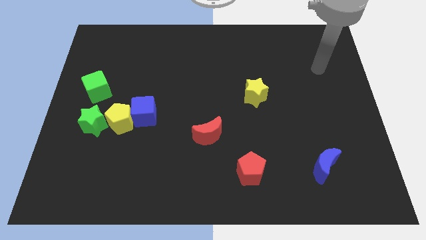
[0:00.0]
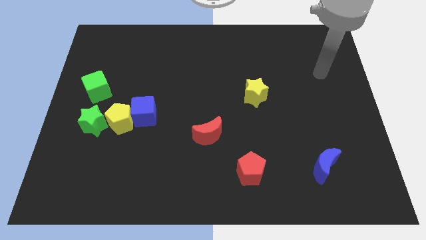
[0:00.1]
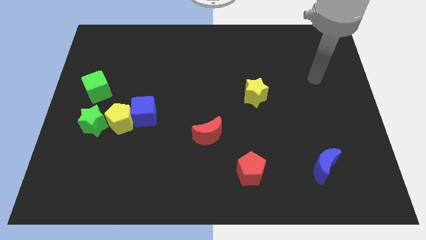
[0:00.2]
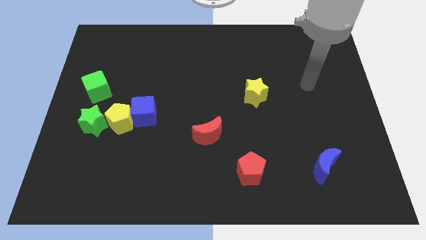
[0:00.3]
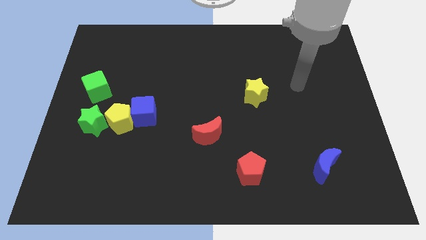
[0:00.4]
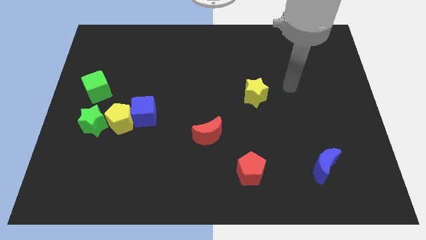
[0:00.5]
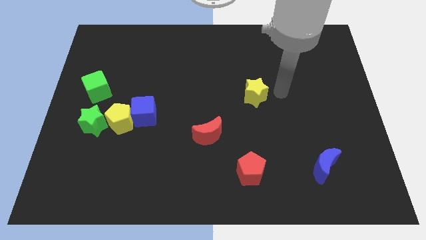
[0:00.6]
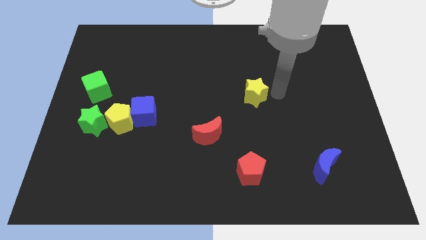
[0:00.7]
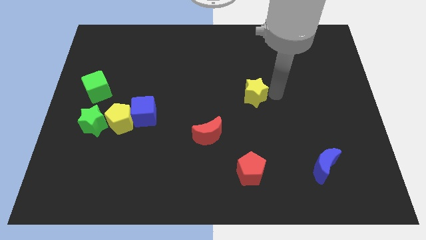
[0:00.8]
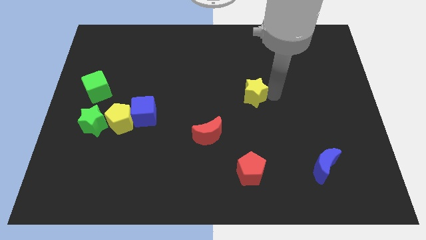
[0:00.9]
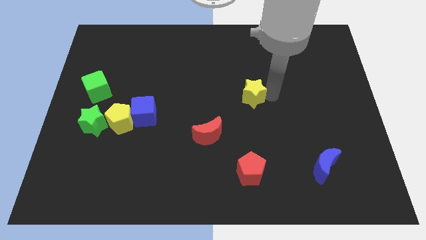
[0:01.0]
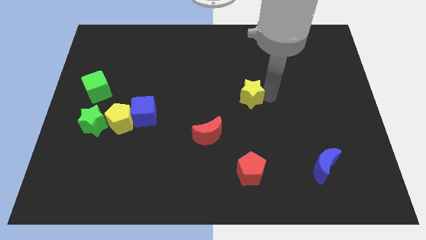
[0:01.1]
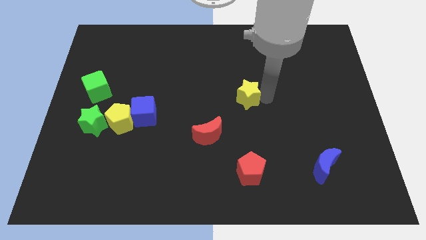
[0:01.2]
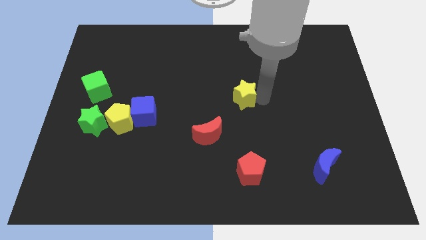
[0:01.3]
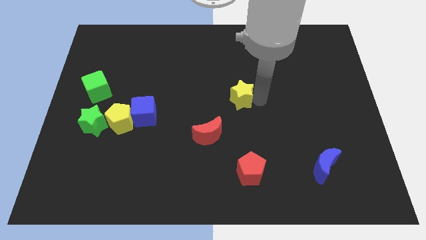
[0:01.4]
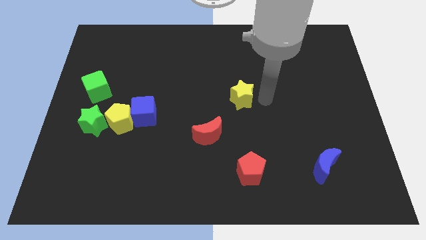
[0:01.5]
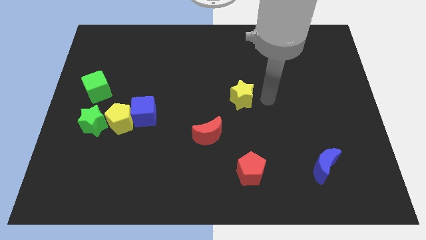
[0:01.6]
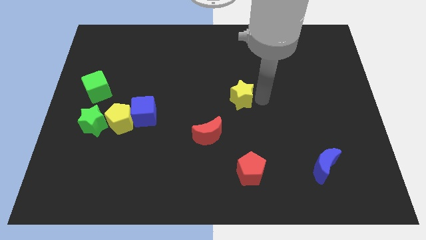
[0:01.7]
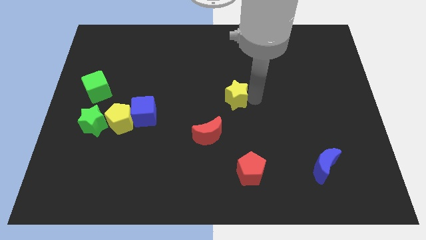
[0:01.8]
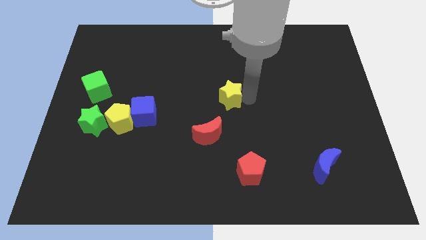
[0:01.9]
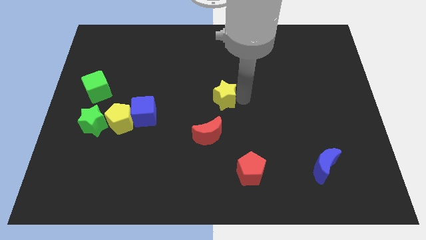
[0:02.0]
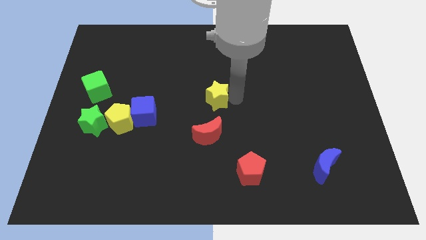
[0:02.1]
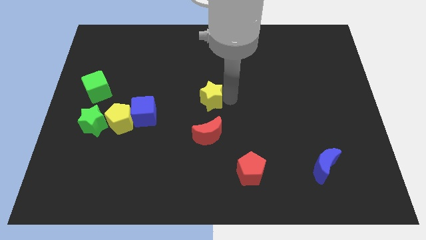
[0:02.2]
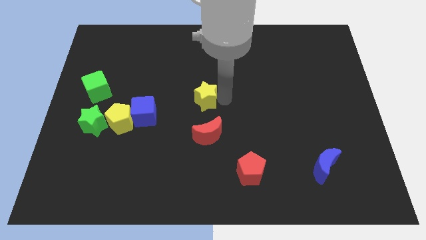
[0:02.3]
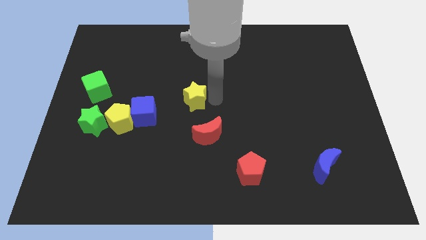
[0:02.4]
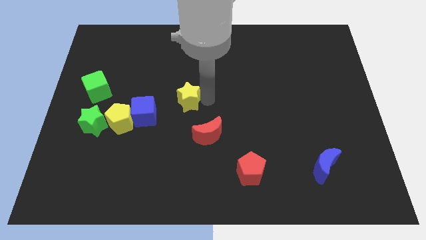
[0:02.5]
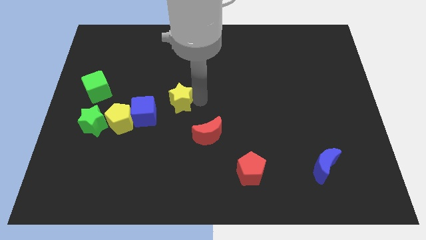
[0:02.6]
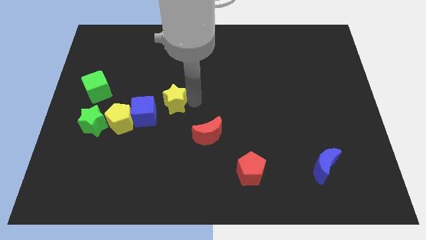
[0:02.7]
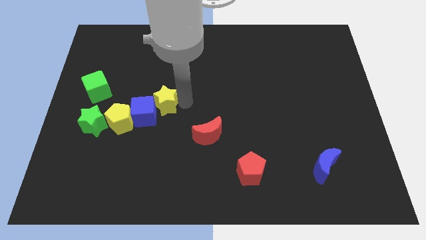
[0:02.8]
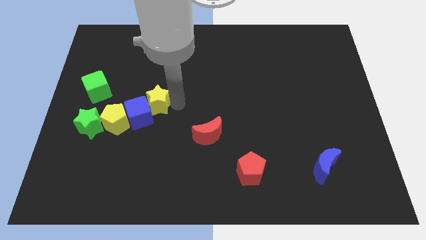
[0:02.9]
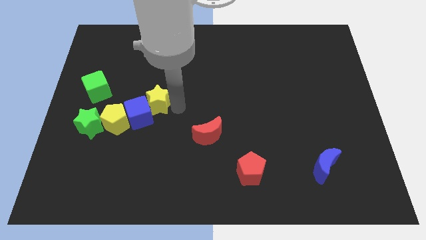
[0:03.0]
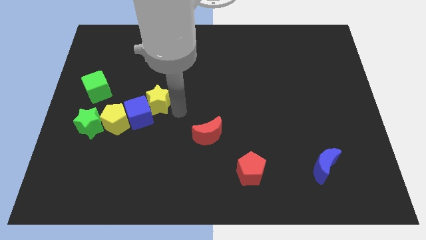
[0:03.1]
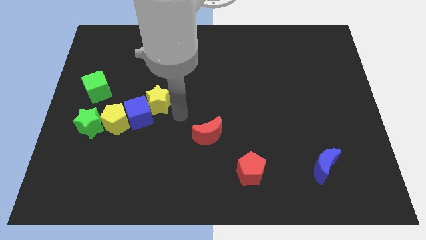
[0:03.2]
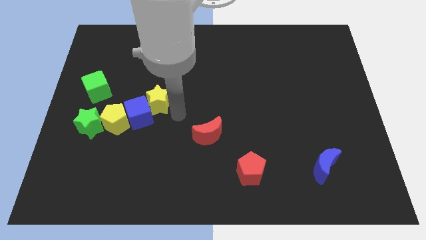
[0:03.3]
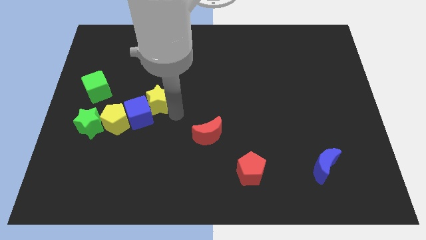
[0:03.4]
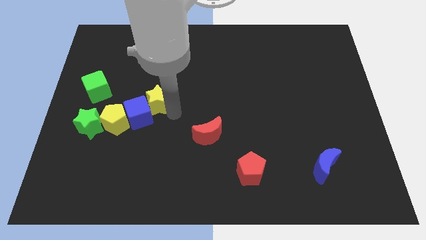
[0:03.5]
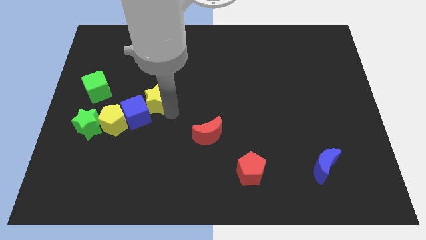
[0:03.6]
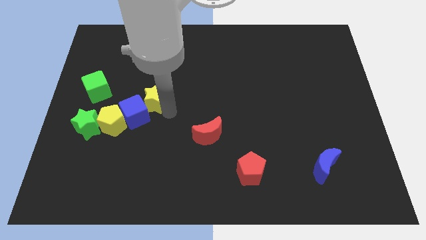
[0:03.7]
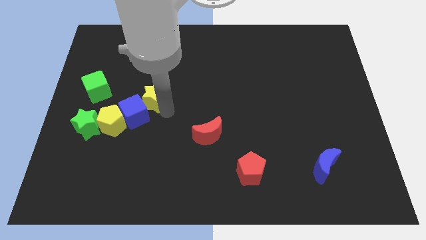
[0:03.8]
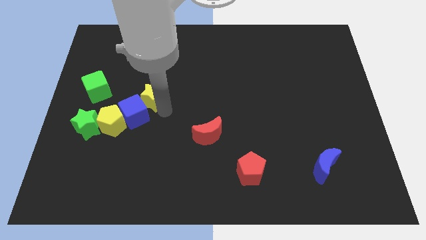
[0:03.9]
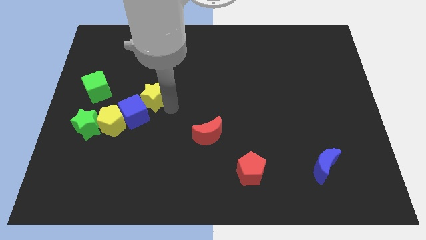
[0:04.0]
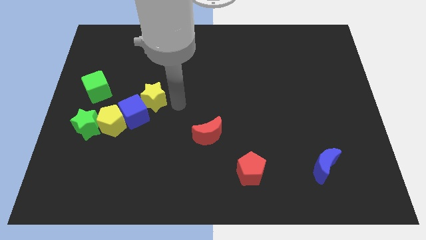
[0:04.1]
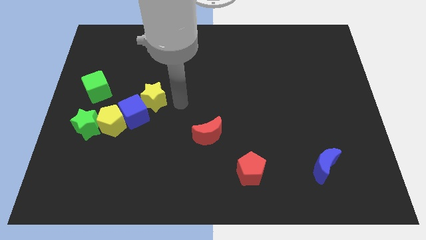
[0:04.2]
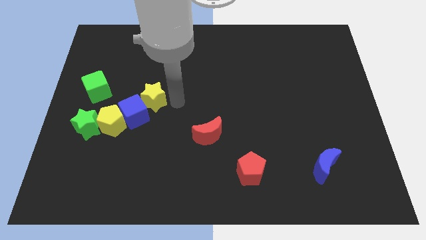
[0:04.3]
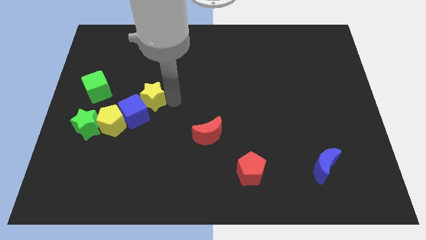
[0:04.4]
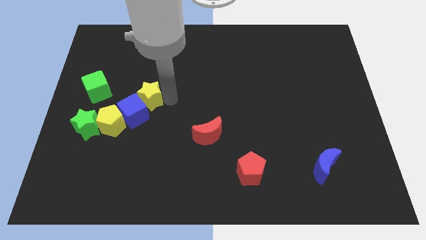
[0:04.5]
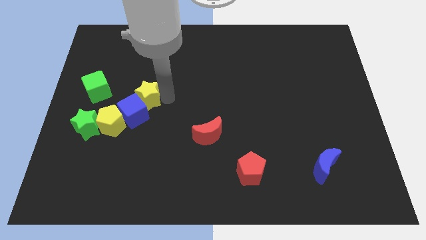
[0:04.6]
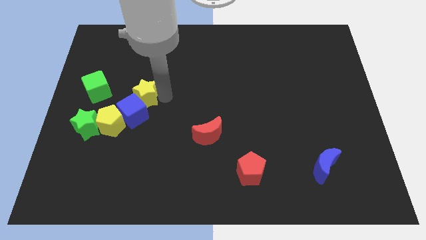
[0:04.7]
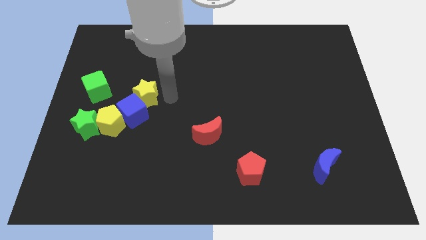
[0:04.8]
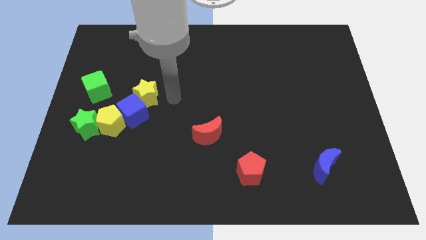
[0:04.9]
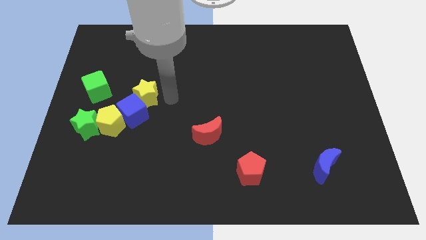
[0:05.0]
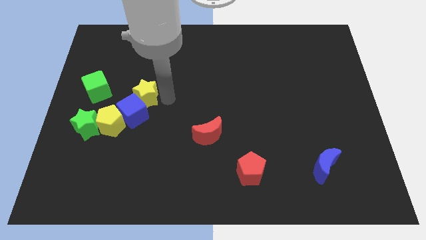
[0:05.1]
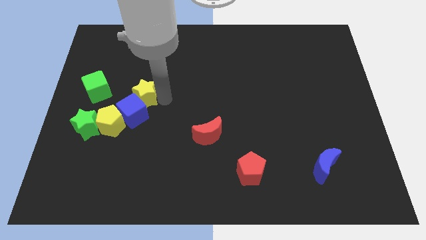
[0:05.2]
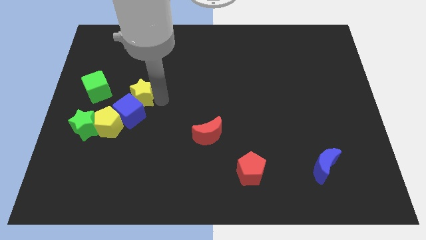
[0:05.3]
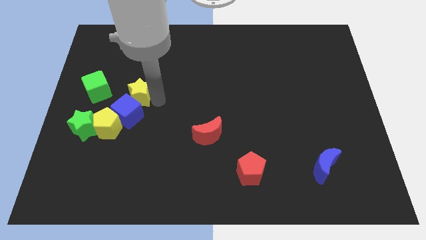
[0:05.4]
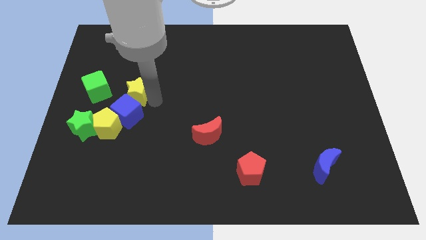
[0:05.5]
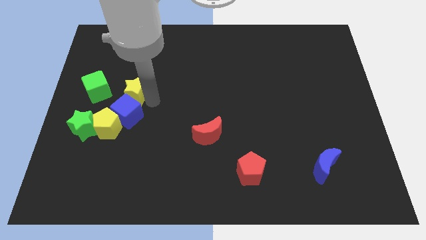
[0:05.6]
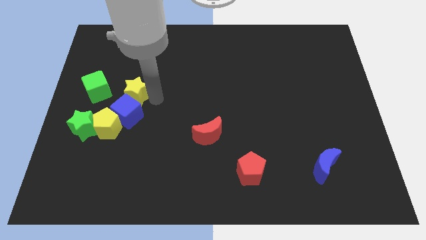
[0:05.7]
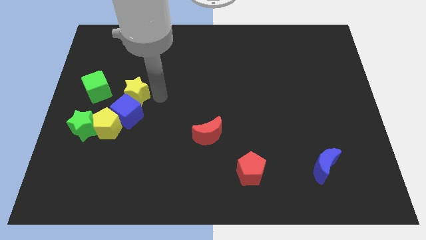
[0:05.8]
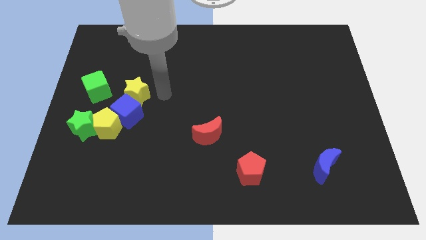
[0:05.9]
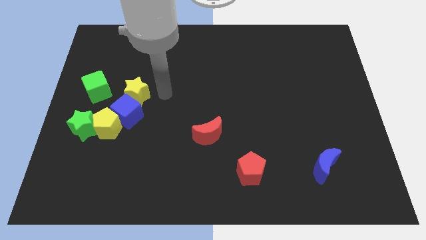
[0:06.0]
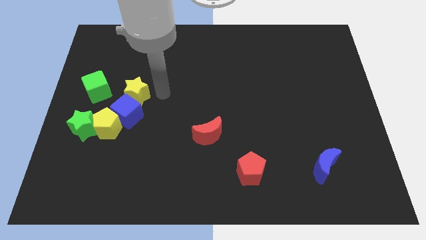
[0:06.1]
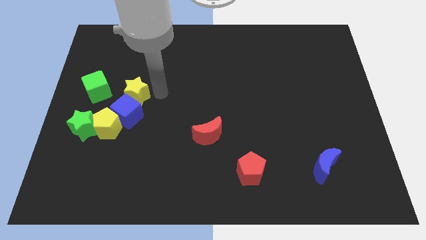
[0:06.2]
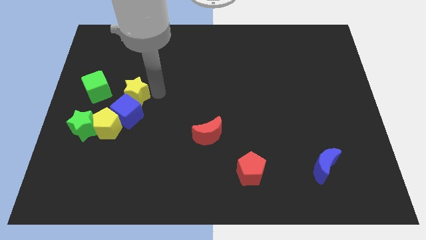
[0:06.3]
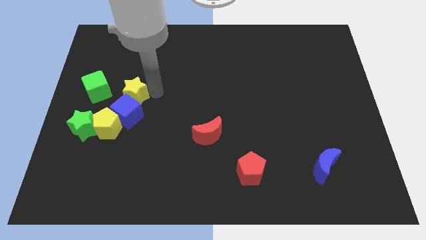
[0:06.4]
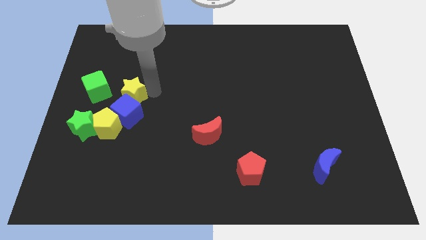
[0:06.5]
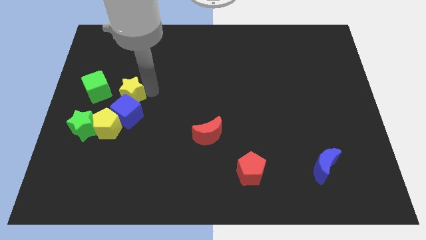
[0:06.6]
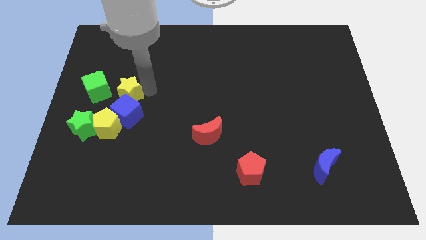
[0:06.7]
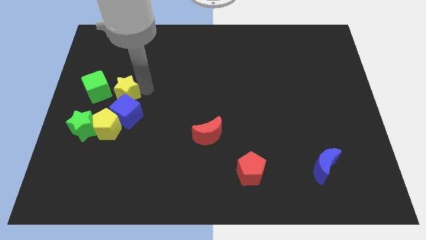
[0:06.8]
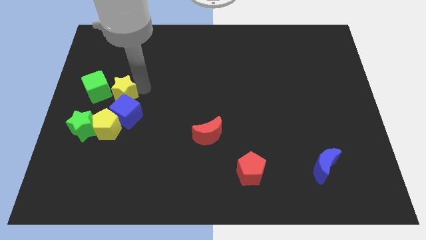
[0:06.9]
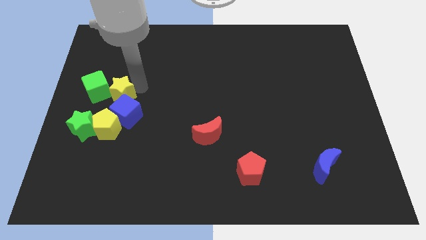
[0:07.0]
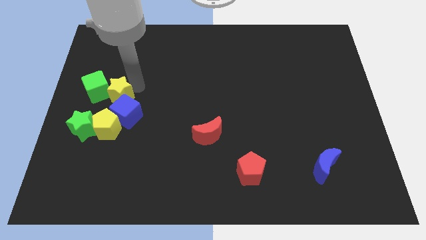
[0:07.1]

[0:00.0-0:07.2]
move the yellow star to the green cube
